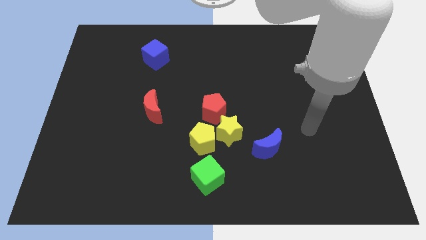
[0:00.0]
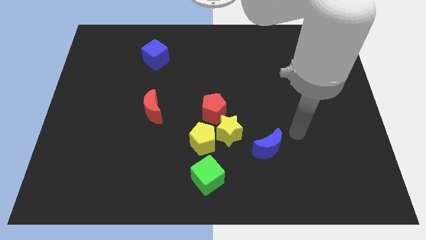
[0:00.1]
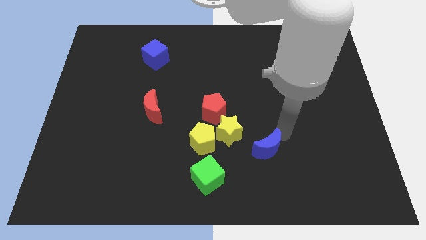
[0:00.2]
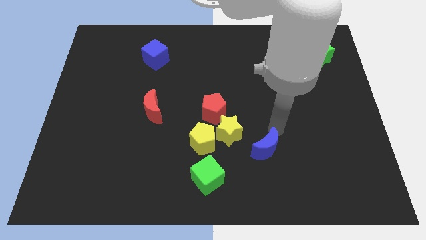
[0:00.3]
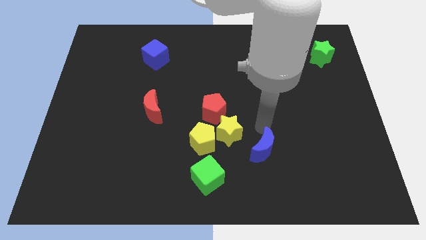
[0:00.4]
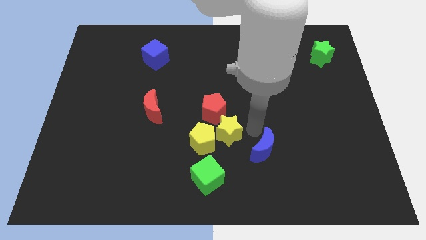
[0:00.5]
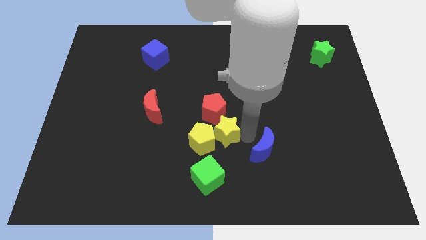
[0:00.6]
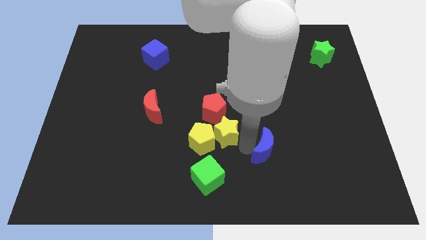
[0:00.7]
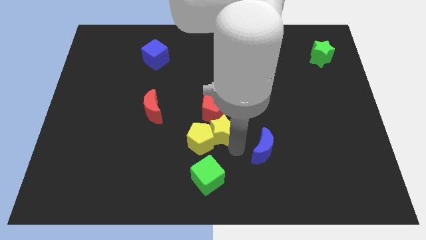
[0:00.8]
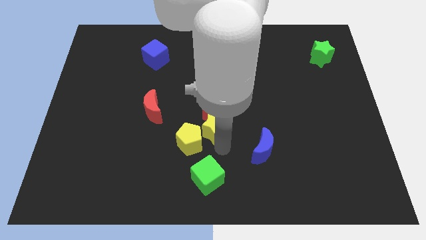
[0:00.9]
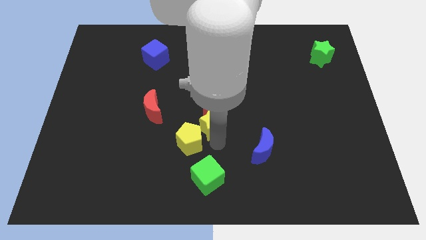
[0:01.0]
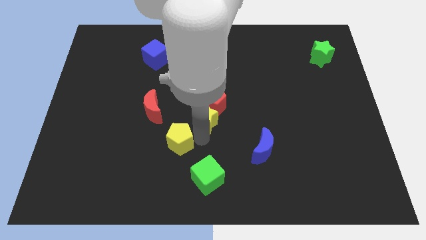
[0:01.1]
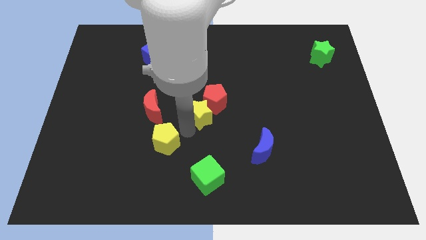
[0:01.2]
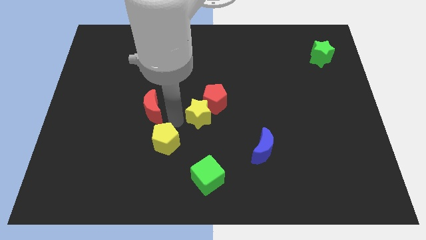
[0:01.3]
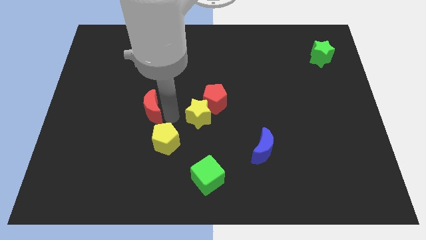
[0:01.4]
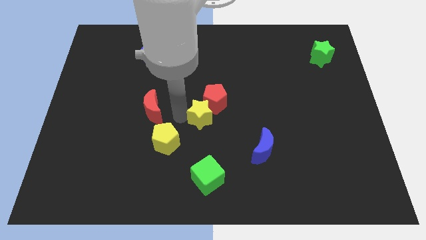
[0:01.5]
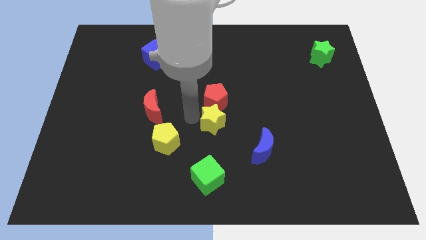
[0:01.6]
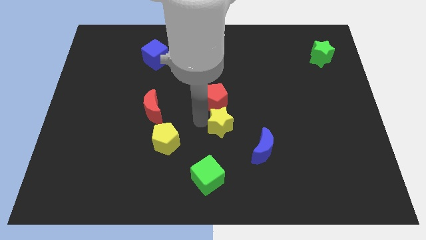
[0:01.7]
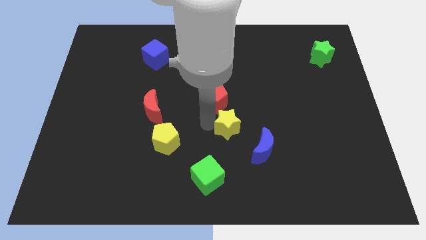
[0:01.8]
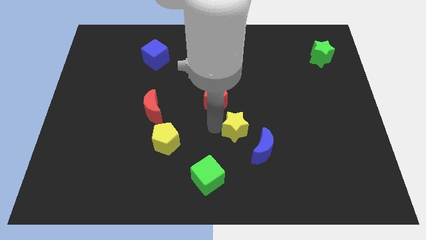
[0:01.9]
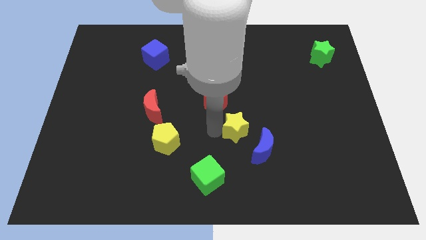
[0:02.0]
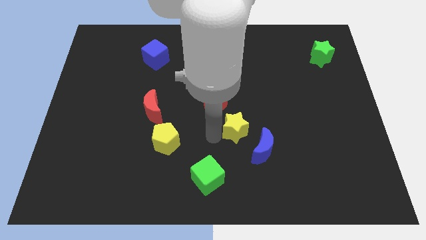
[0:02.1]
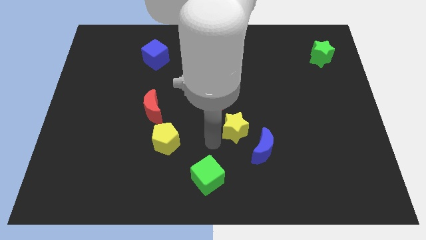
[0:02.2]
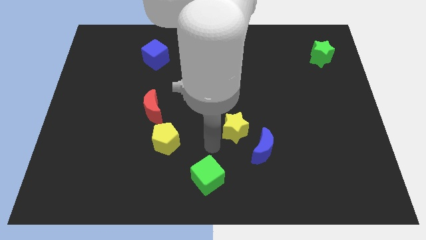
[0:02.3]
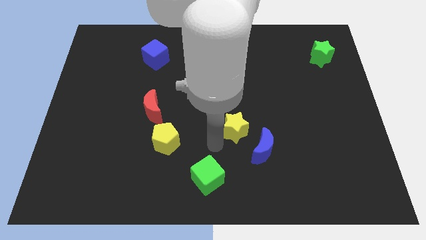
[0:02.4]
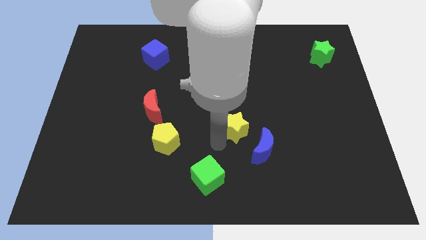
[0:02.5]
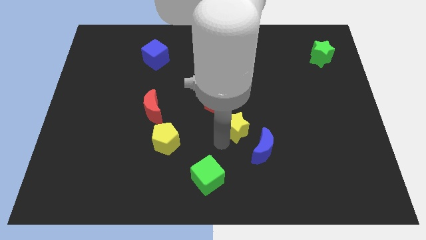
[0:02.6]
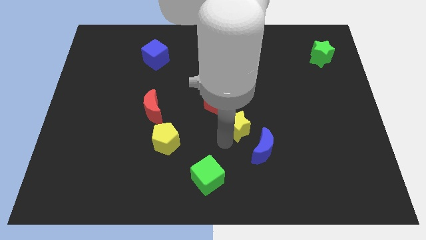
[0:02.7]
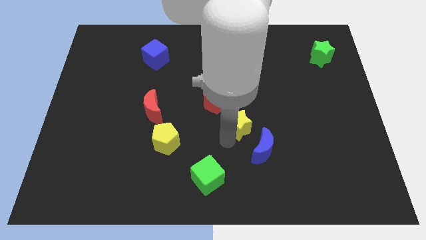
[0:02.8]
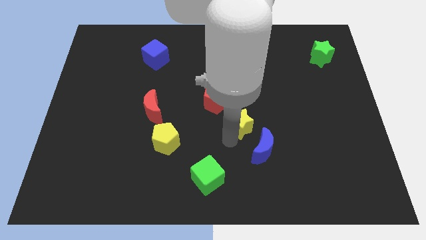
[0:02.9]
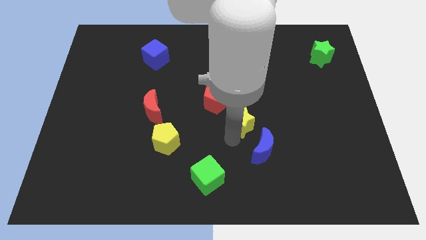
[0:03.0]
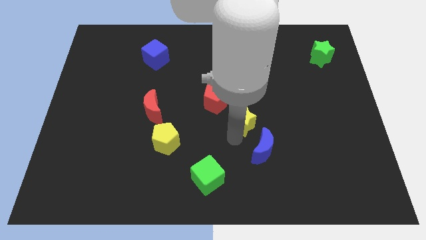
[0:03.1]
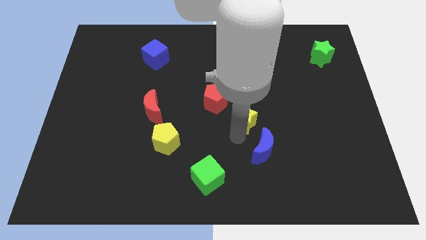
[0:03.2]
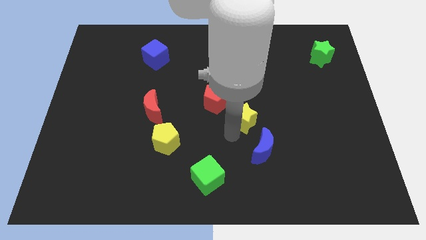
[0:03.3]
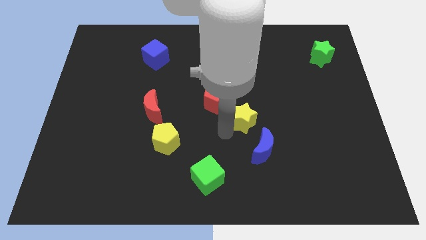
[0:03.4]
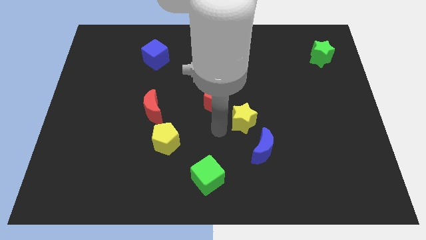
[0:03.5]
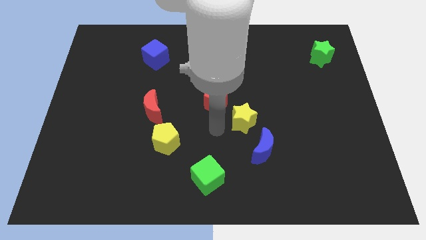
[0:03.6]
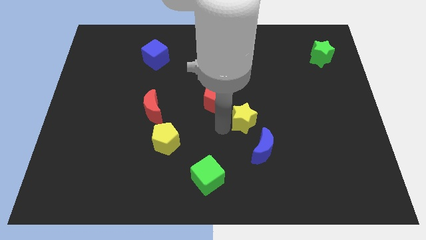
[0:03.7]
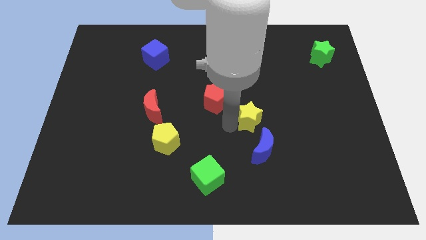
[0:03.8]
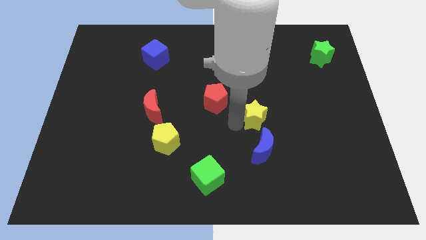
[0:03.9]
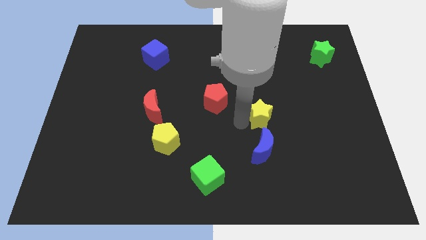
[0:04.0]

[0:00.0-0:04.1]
pull the yellow star apart from the yellow pentagon, red pentagon, and blue moon

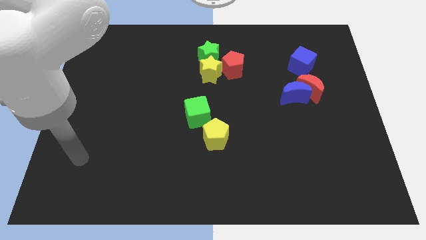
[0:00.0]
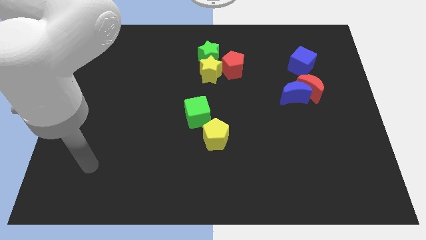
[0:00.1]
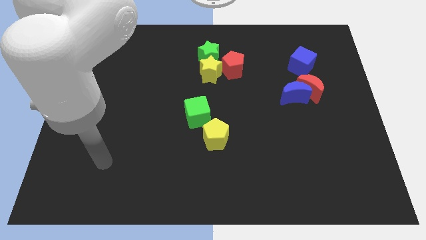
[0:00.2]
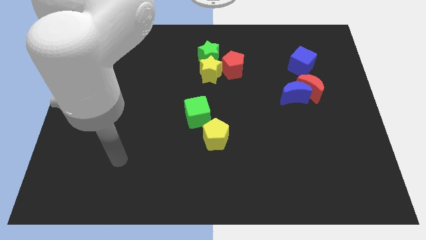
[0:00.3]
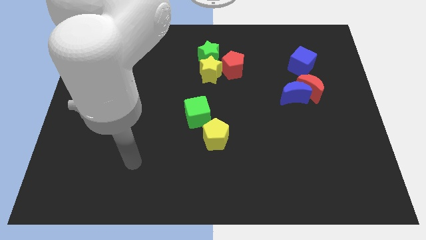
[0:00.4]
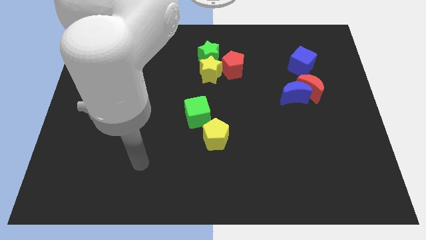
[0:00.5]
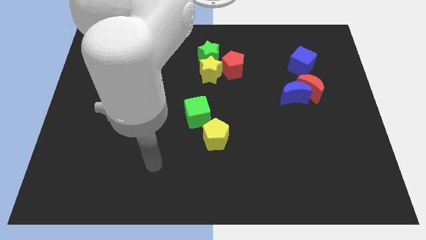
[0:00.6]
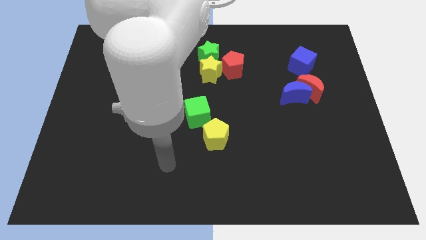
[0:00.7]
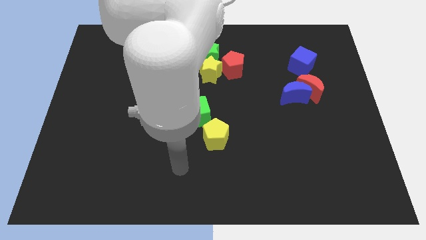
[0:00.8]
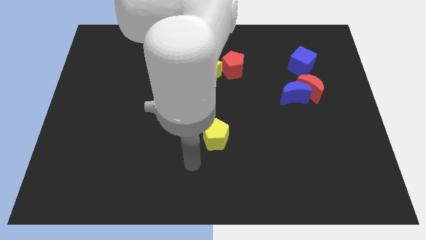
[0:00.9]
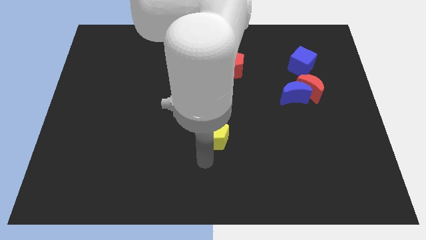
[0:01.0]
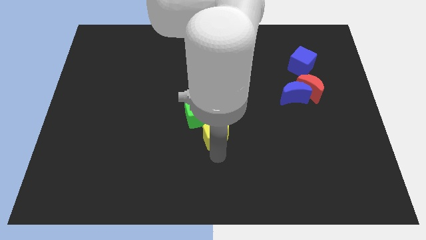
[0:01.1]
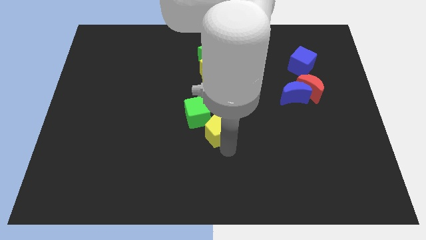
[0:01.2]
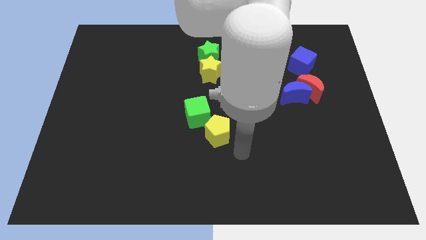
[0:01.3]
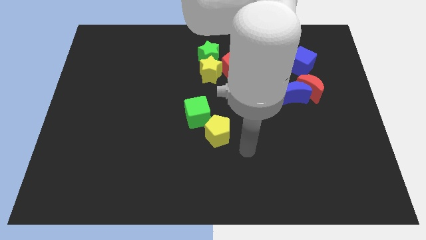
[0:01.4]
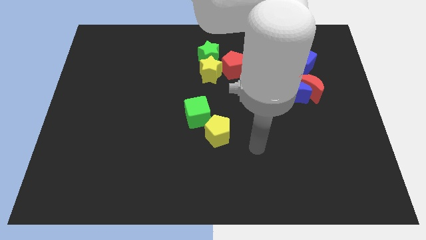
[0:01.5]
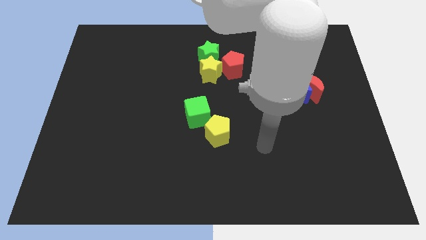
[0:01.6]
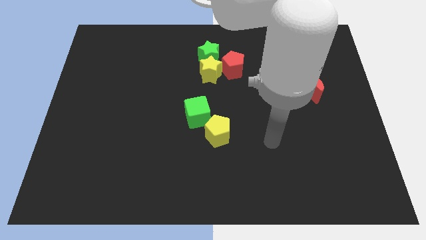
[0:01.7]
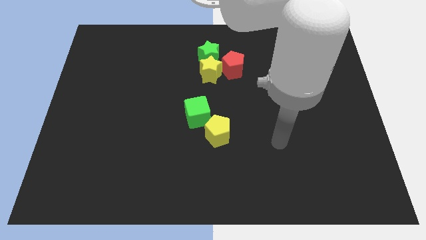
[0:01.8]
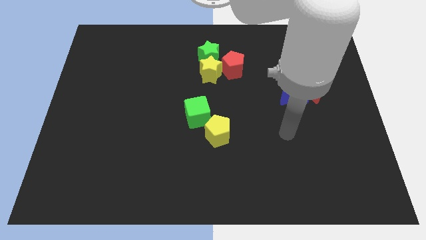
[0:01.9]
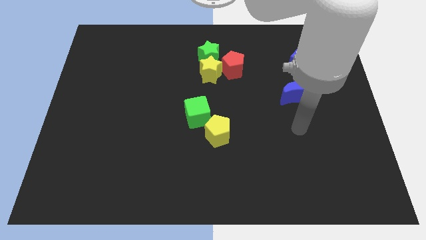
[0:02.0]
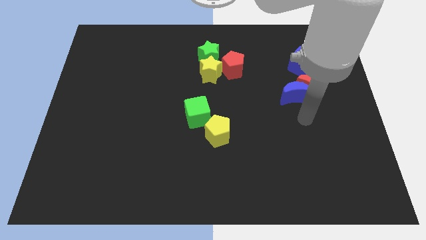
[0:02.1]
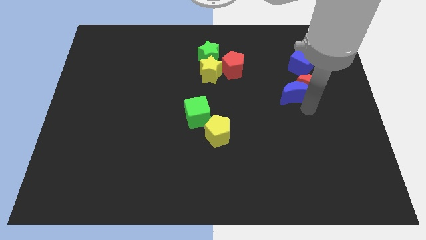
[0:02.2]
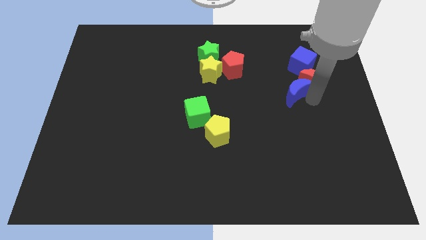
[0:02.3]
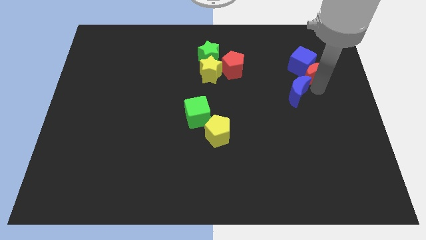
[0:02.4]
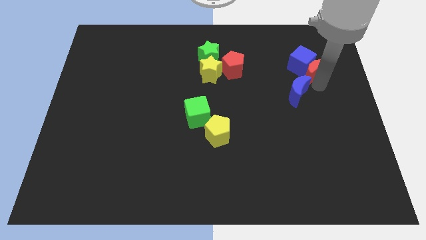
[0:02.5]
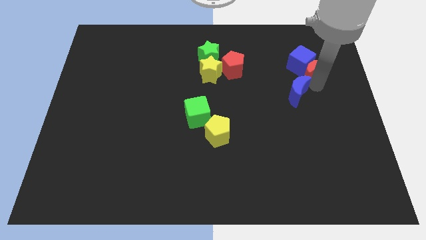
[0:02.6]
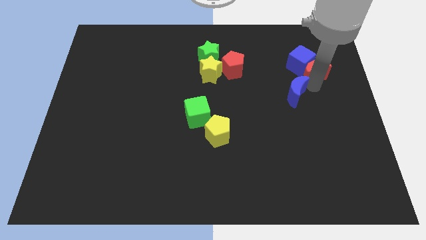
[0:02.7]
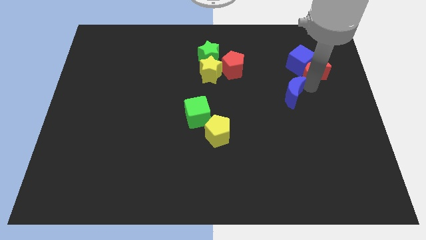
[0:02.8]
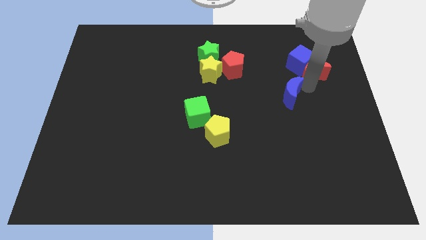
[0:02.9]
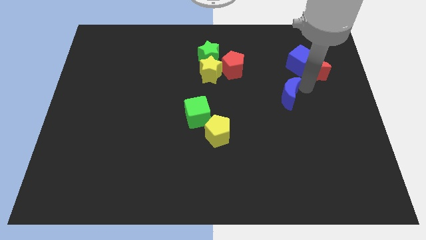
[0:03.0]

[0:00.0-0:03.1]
move the blue moon away from the red moon

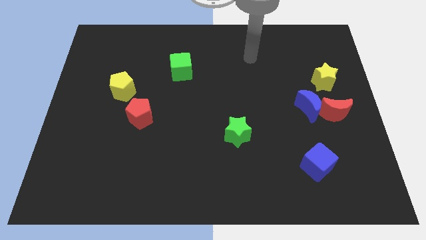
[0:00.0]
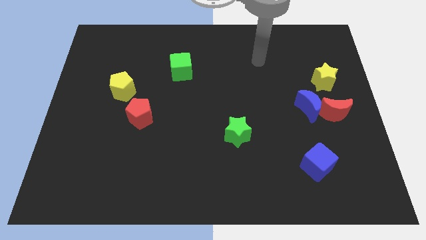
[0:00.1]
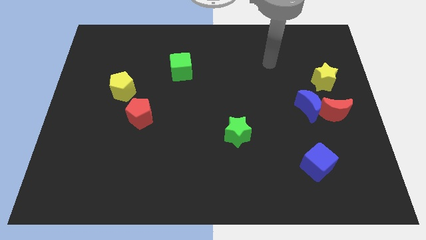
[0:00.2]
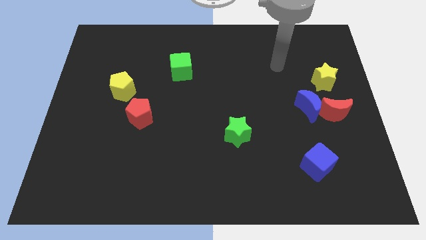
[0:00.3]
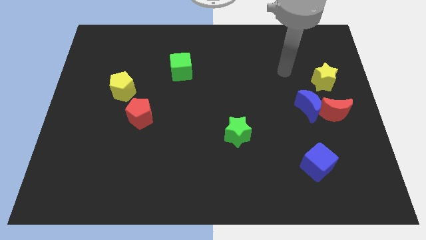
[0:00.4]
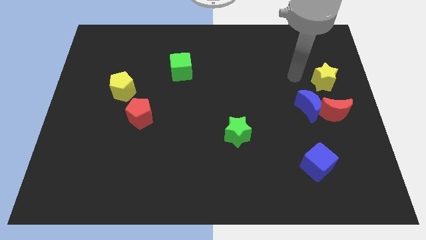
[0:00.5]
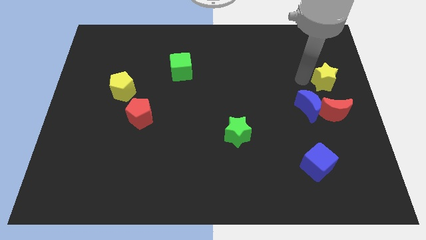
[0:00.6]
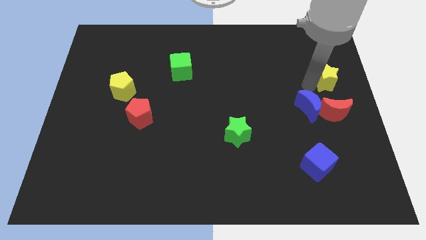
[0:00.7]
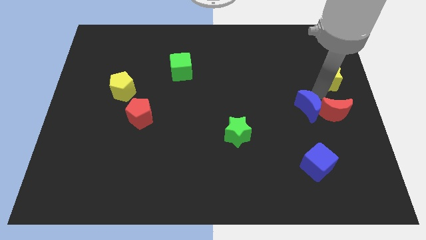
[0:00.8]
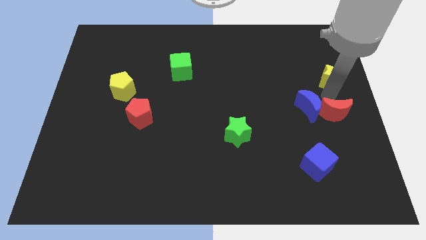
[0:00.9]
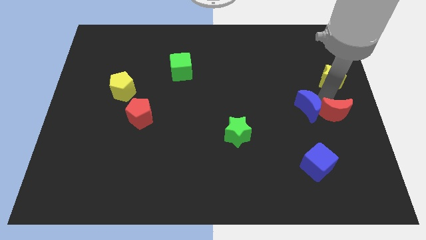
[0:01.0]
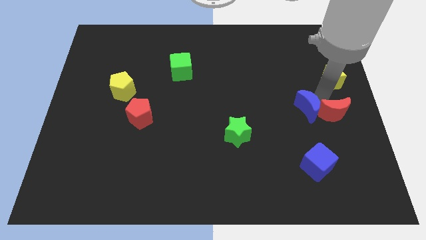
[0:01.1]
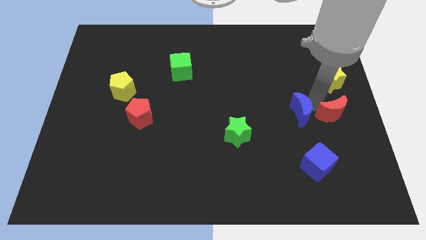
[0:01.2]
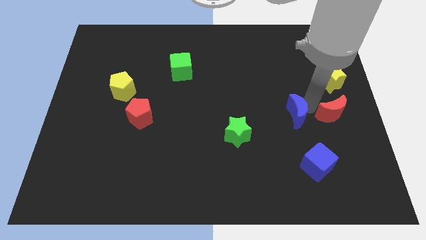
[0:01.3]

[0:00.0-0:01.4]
separate the blue moon from the red moon and yellow star

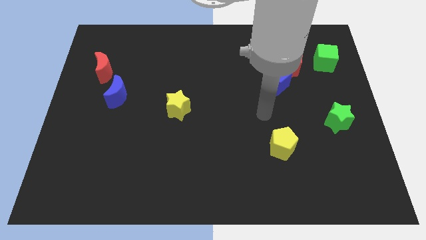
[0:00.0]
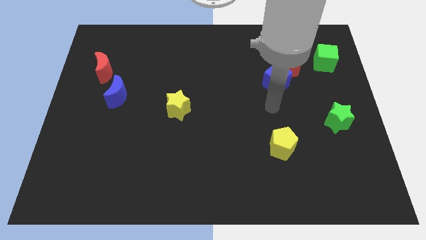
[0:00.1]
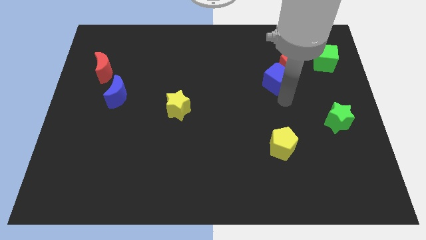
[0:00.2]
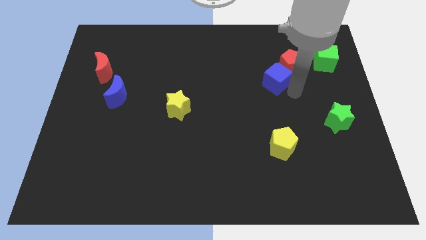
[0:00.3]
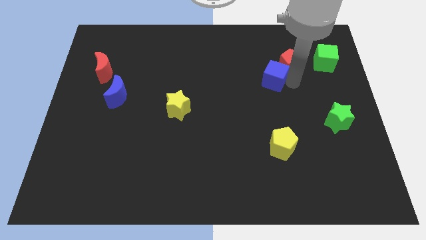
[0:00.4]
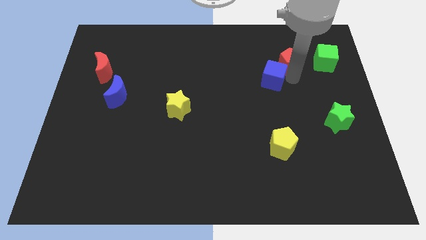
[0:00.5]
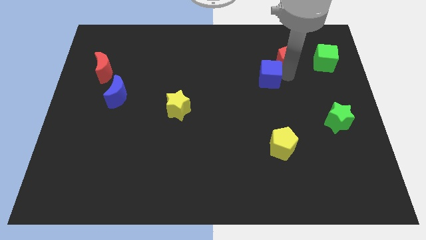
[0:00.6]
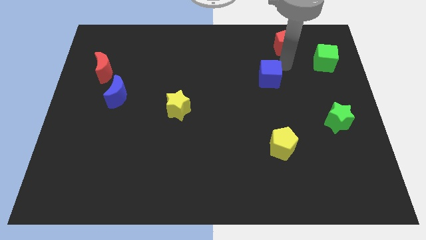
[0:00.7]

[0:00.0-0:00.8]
pull the blue cube apart from the red pentagon
